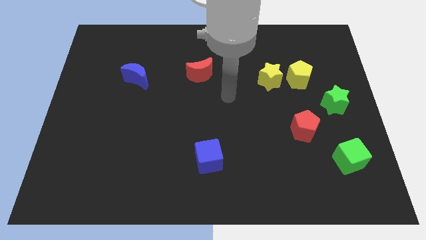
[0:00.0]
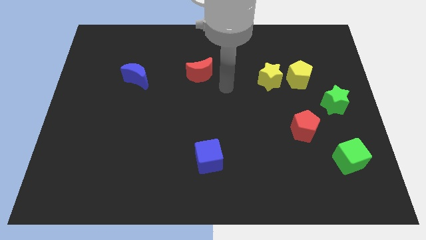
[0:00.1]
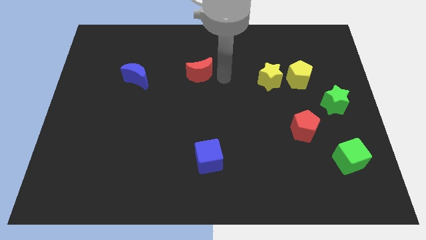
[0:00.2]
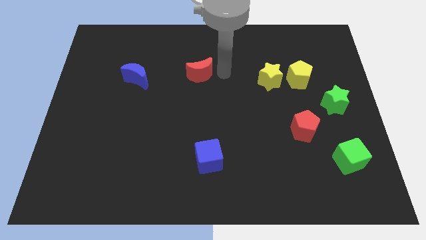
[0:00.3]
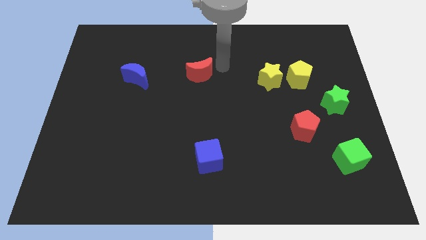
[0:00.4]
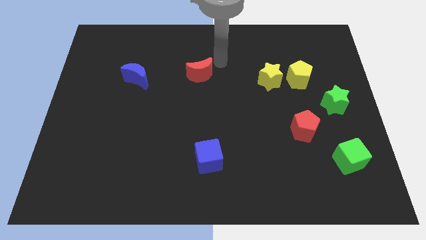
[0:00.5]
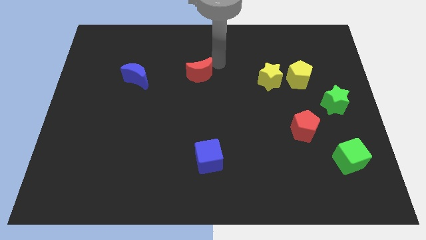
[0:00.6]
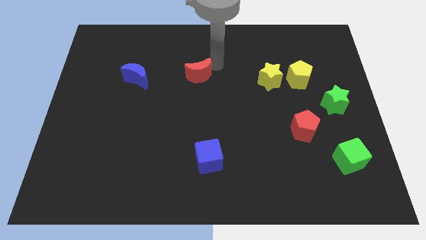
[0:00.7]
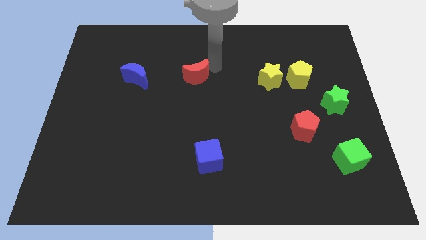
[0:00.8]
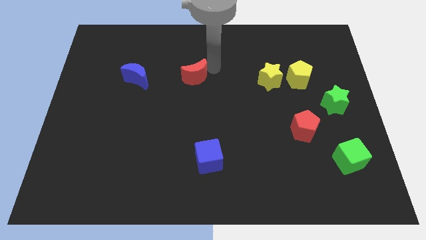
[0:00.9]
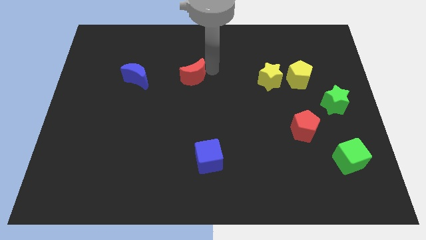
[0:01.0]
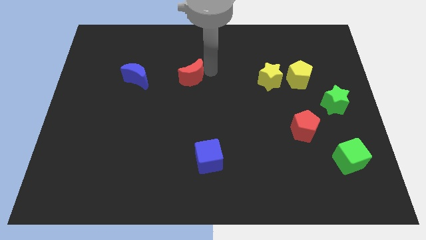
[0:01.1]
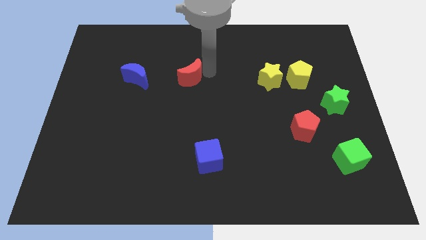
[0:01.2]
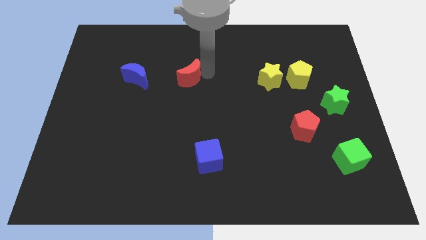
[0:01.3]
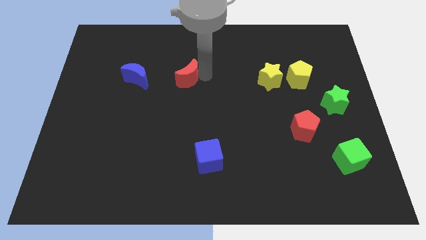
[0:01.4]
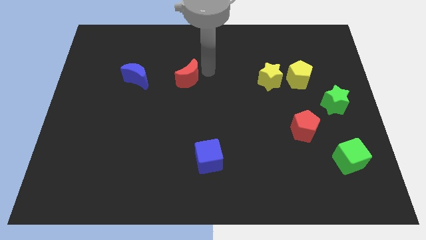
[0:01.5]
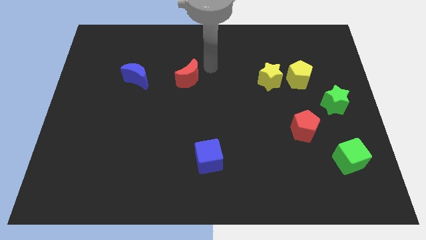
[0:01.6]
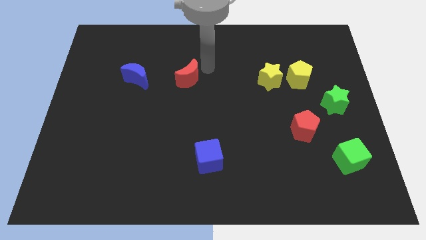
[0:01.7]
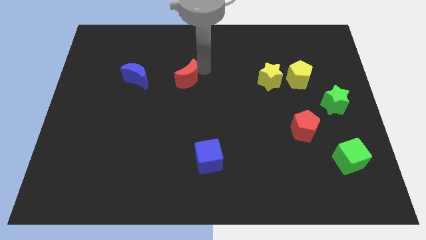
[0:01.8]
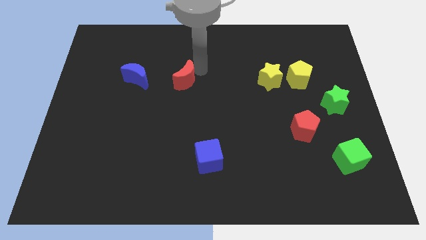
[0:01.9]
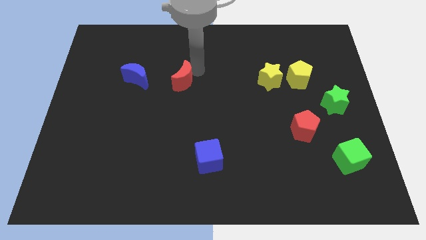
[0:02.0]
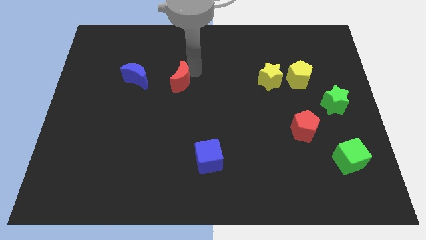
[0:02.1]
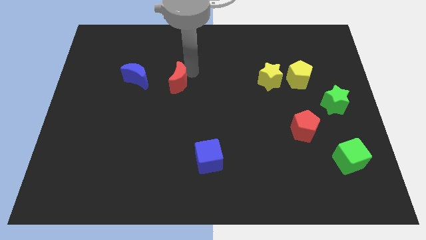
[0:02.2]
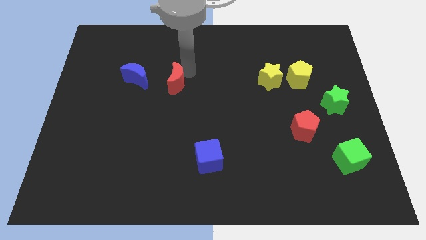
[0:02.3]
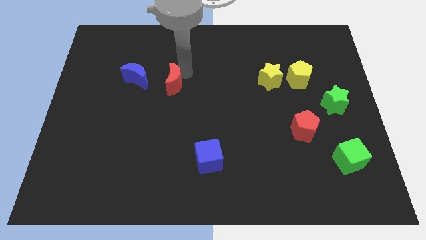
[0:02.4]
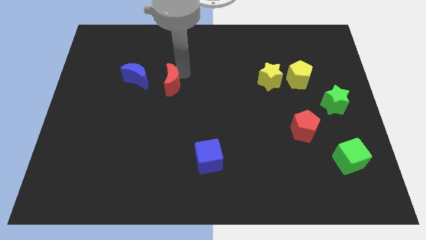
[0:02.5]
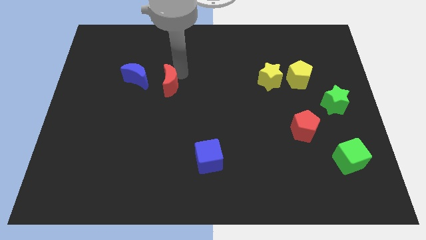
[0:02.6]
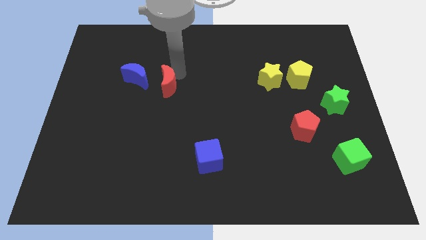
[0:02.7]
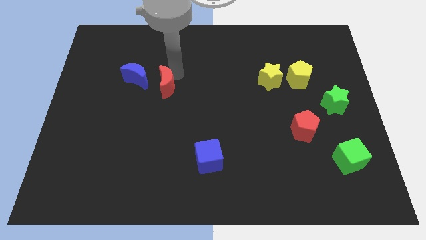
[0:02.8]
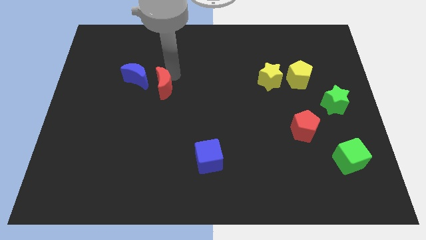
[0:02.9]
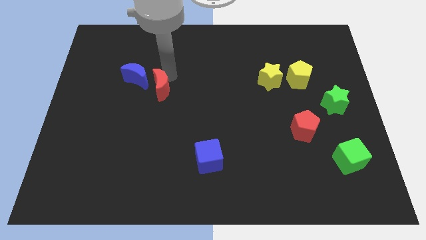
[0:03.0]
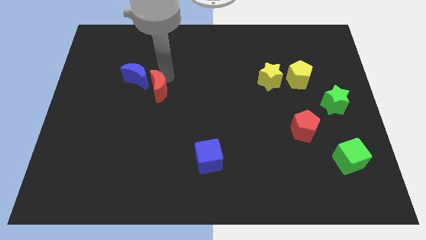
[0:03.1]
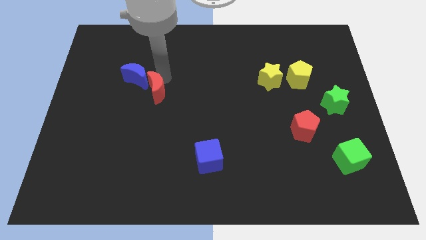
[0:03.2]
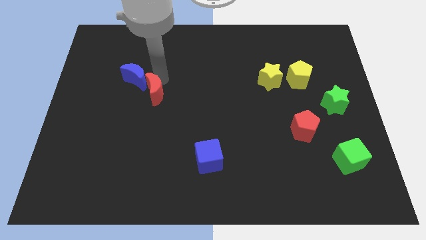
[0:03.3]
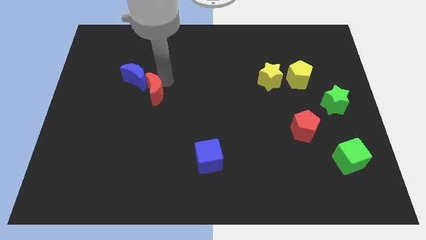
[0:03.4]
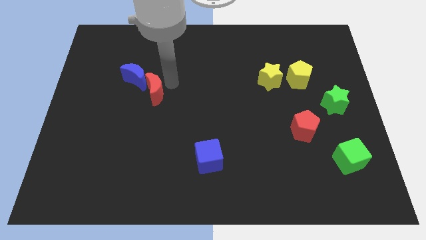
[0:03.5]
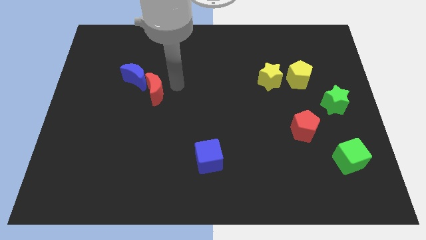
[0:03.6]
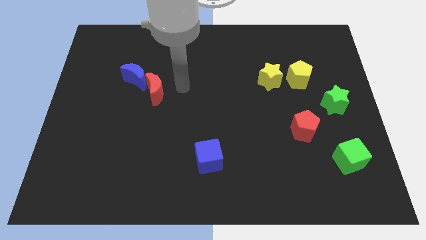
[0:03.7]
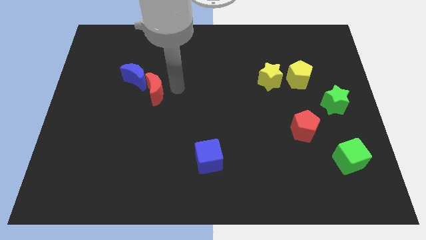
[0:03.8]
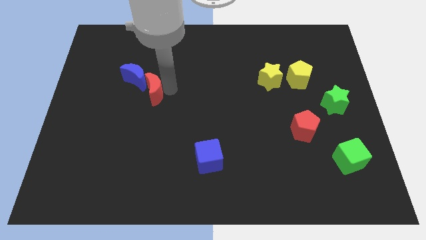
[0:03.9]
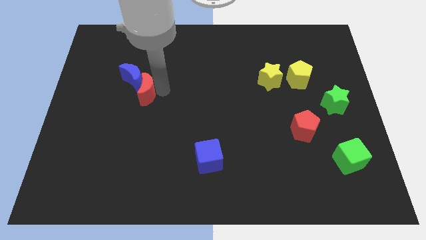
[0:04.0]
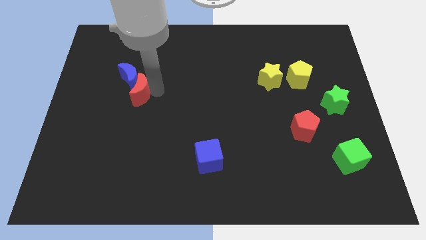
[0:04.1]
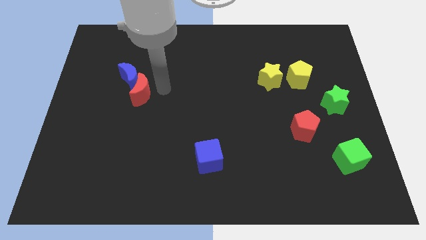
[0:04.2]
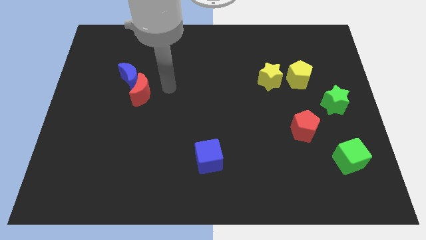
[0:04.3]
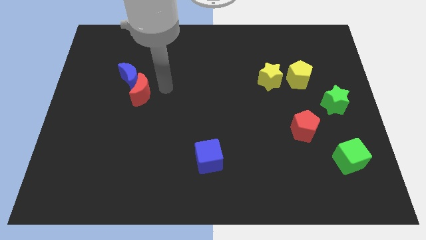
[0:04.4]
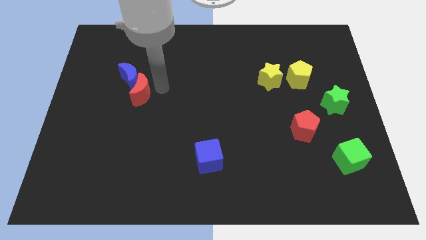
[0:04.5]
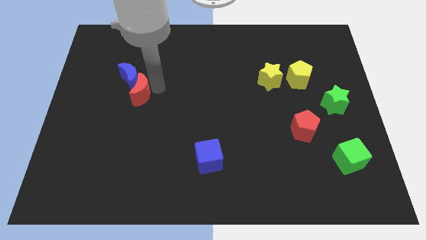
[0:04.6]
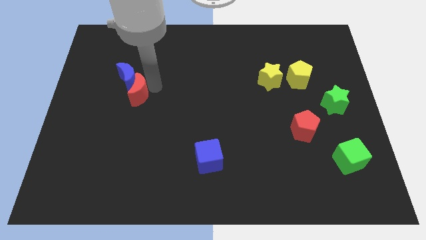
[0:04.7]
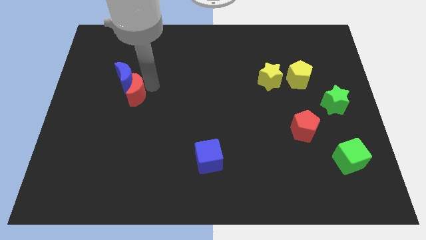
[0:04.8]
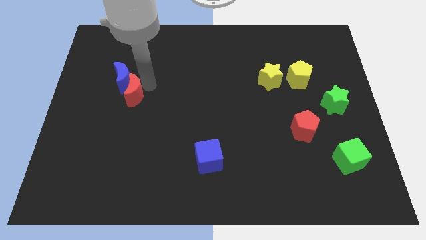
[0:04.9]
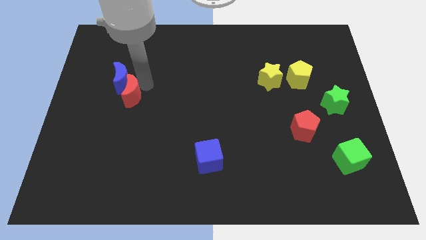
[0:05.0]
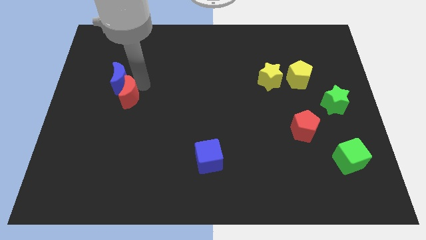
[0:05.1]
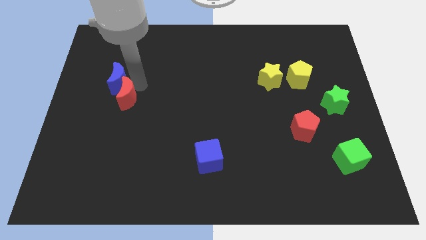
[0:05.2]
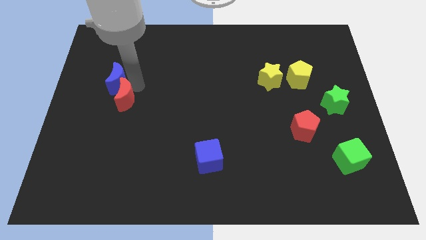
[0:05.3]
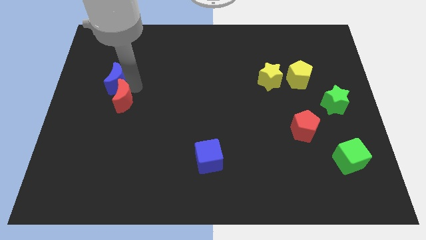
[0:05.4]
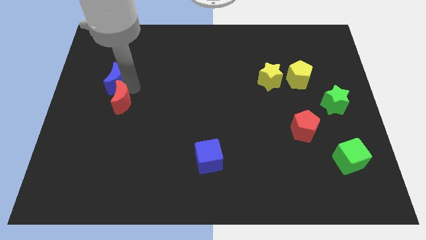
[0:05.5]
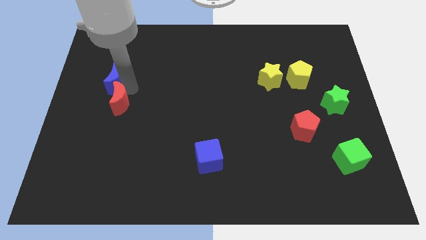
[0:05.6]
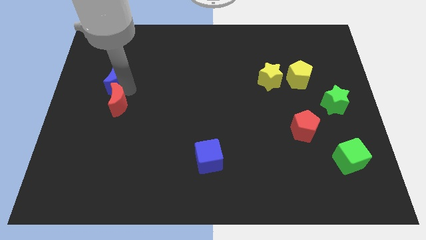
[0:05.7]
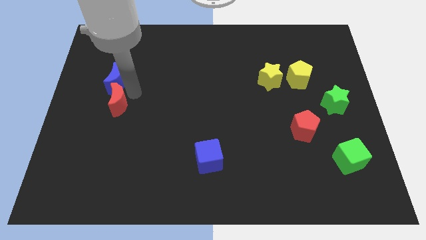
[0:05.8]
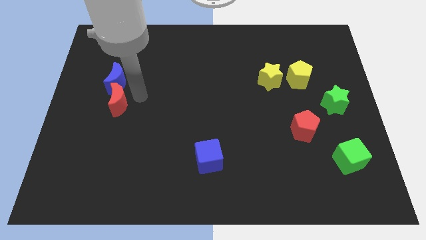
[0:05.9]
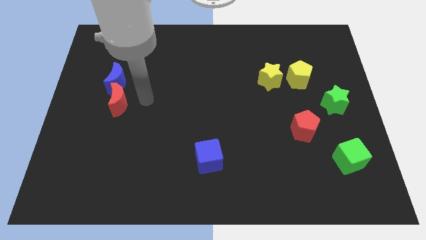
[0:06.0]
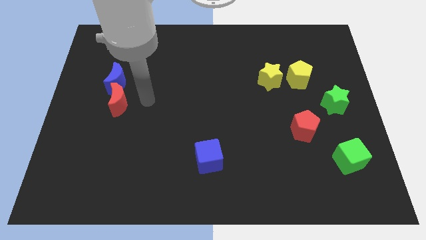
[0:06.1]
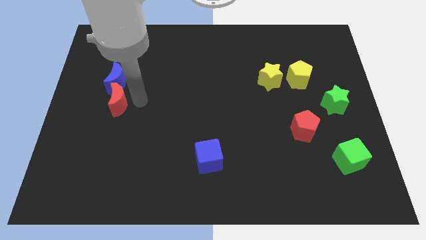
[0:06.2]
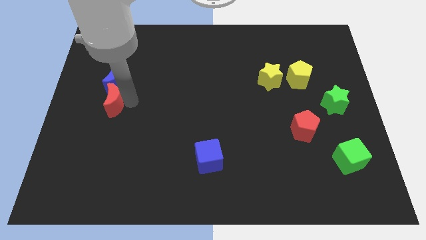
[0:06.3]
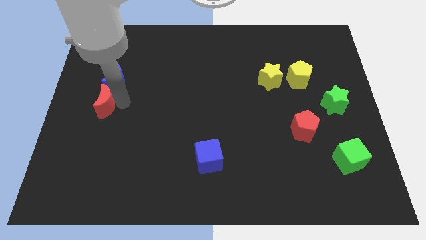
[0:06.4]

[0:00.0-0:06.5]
slide the red moon to the center left

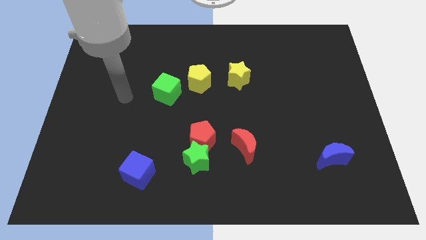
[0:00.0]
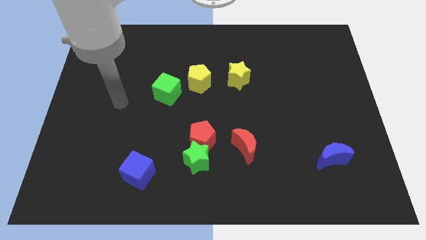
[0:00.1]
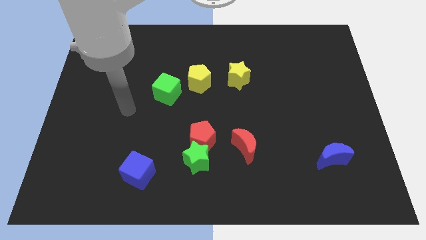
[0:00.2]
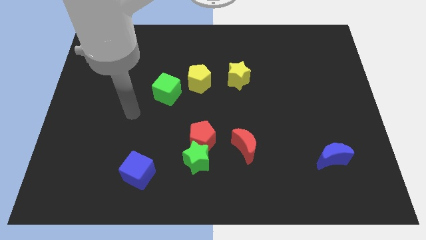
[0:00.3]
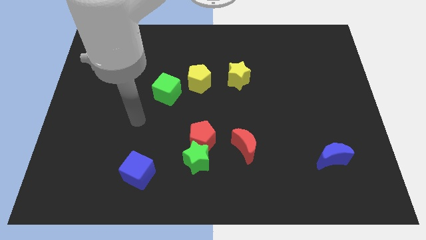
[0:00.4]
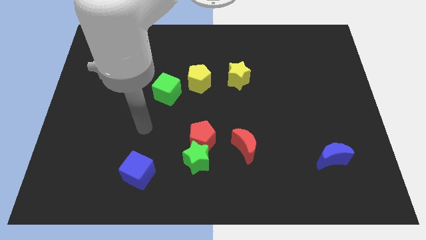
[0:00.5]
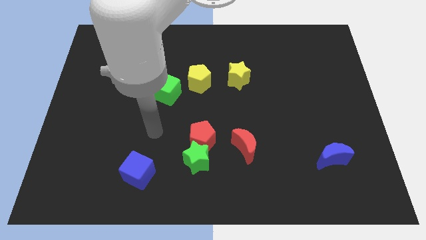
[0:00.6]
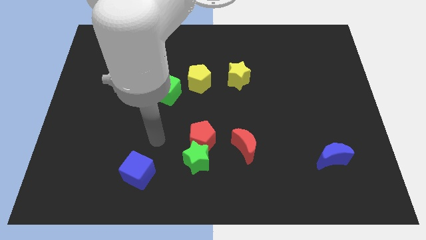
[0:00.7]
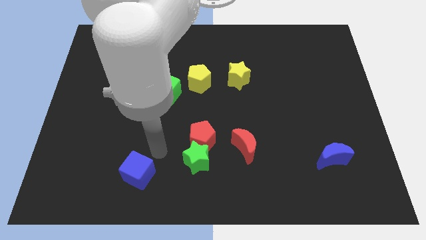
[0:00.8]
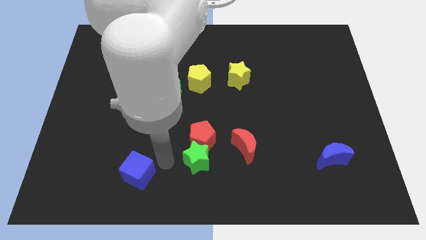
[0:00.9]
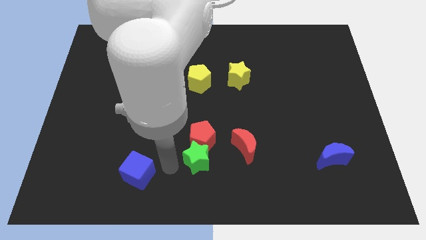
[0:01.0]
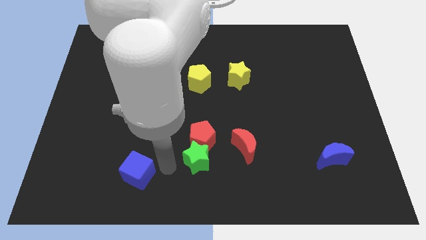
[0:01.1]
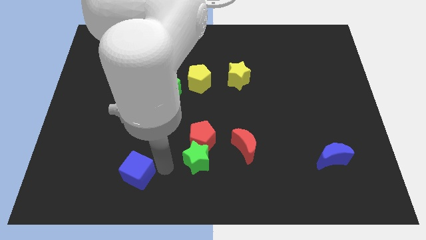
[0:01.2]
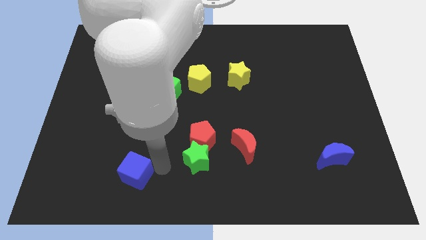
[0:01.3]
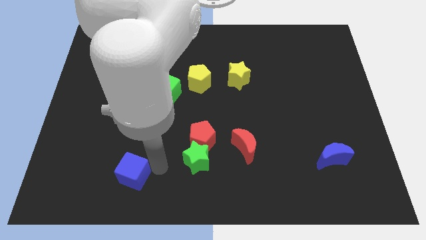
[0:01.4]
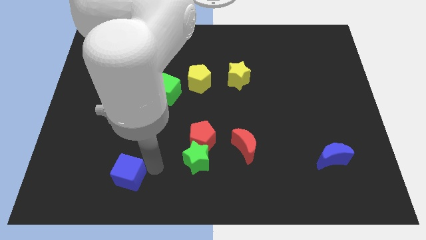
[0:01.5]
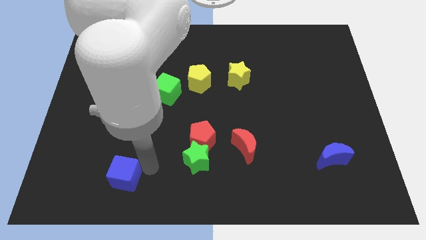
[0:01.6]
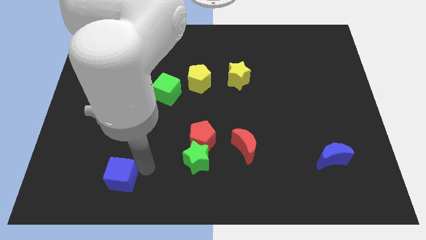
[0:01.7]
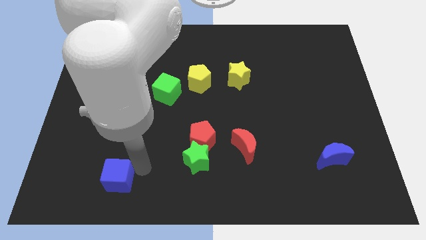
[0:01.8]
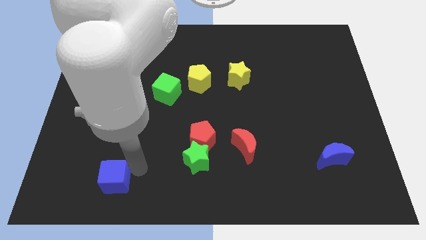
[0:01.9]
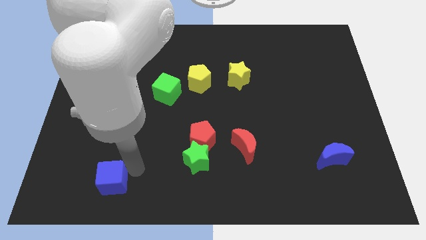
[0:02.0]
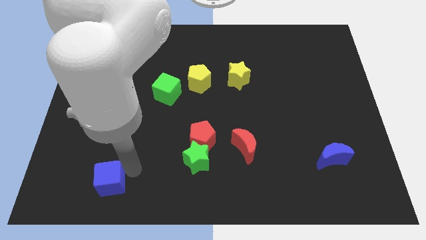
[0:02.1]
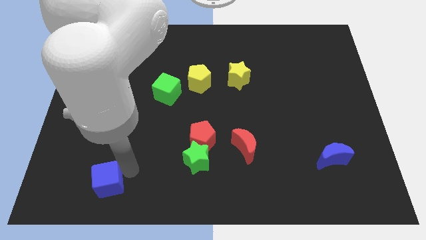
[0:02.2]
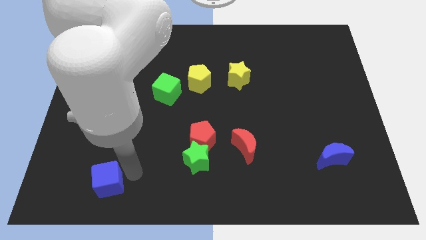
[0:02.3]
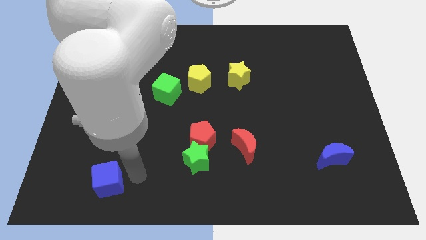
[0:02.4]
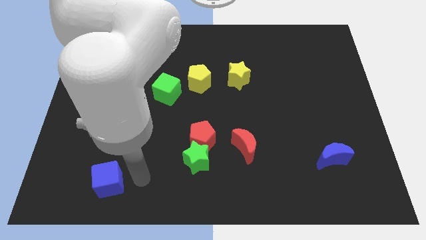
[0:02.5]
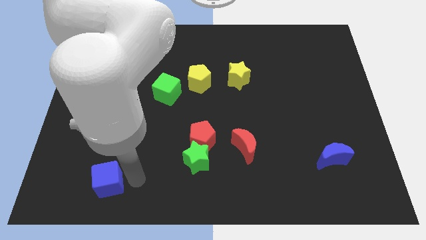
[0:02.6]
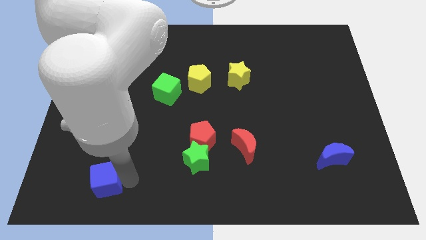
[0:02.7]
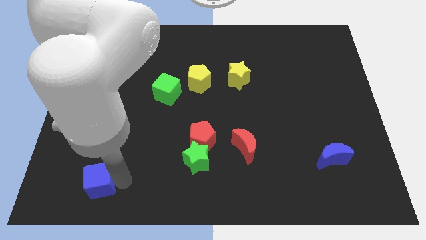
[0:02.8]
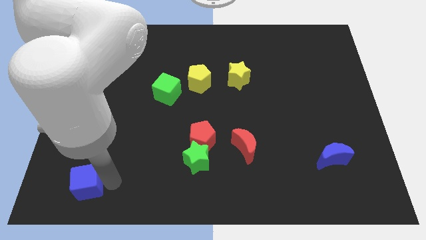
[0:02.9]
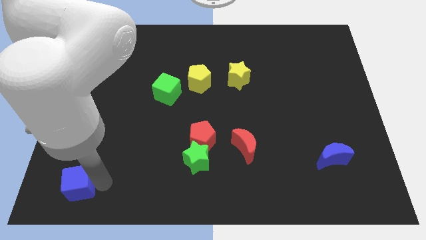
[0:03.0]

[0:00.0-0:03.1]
push the blue cube to the bottom left of the board
